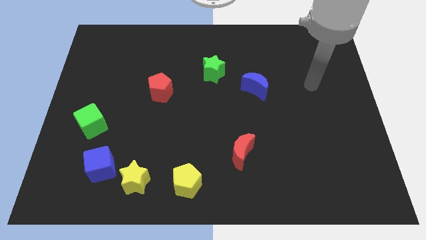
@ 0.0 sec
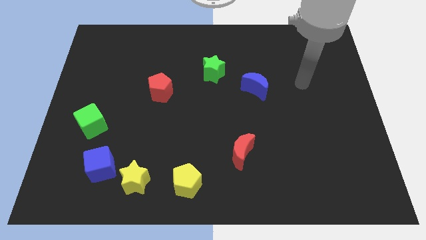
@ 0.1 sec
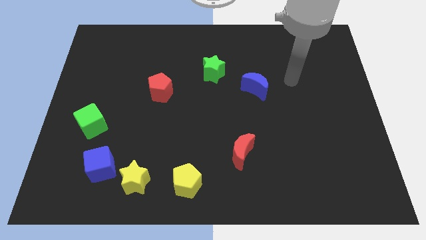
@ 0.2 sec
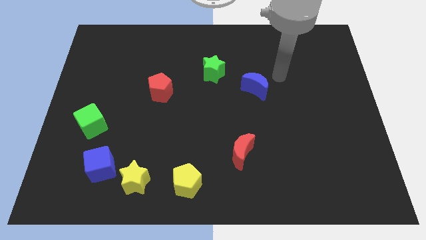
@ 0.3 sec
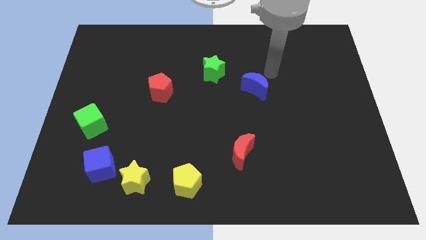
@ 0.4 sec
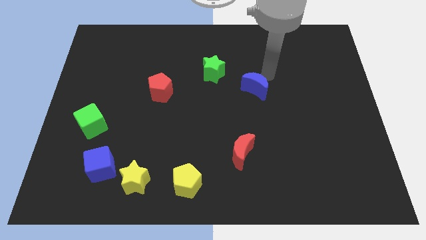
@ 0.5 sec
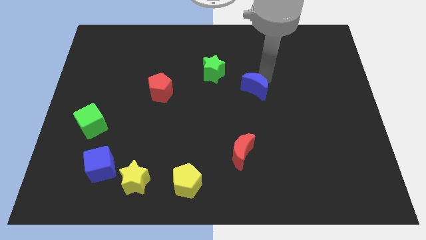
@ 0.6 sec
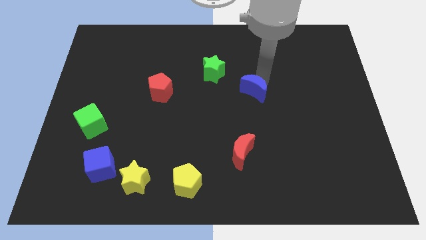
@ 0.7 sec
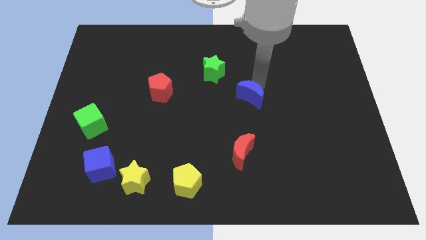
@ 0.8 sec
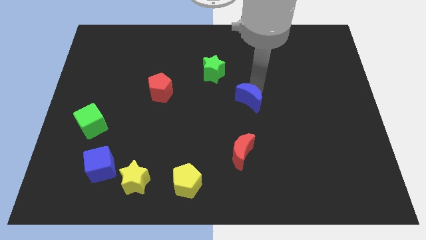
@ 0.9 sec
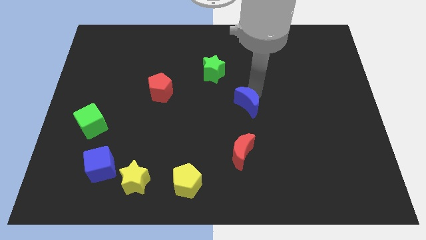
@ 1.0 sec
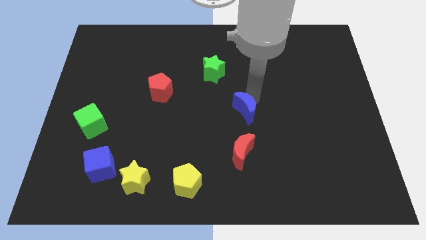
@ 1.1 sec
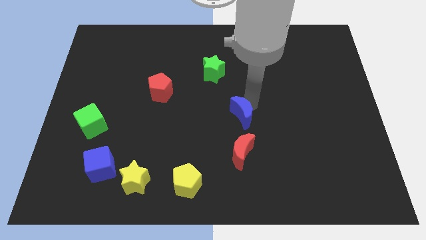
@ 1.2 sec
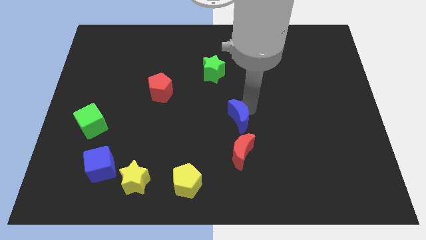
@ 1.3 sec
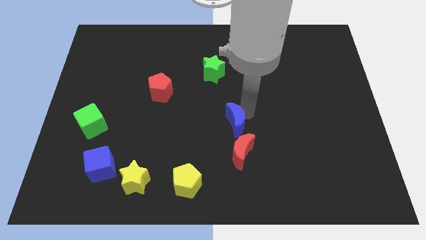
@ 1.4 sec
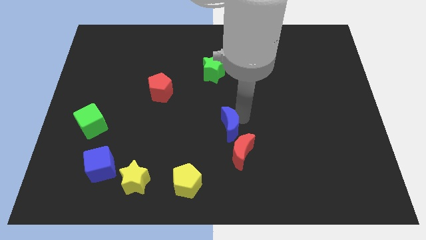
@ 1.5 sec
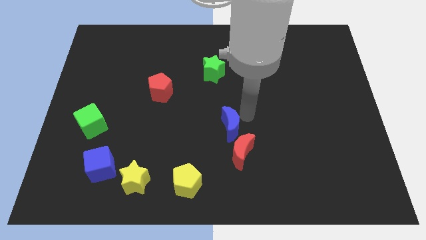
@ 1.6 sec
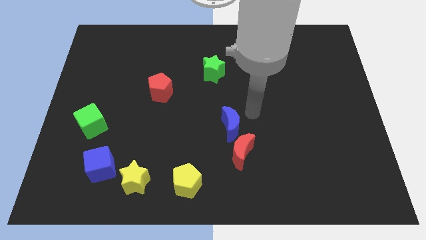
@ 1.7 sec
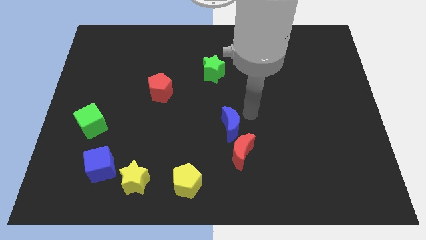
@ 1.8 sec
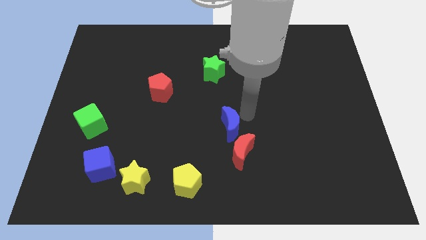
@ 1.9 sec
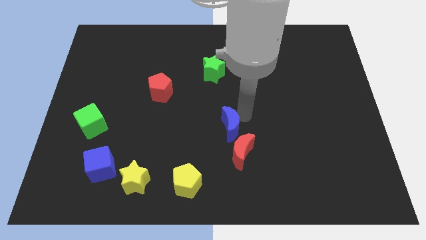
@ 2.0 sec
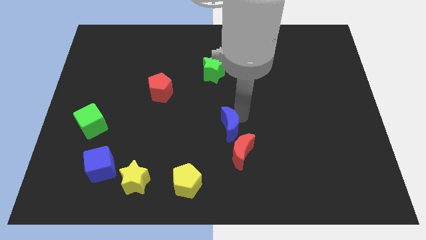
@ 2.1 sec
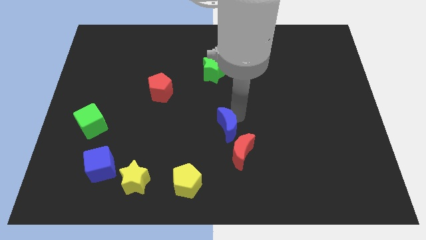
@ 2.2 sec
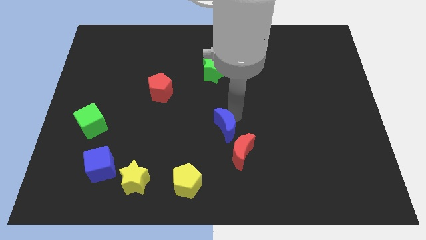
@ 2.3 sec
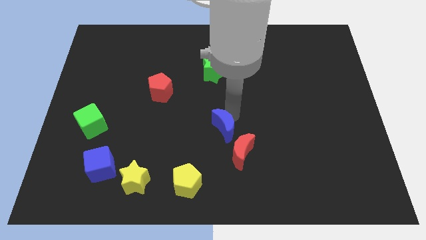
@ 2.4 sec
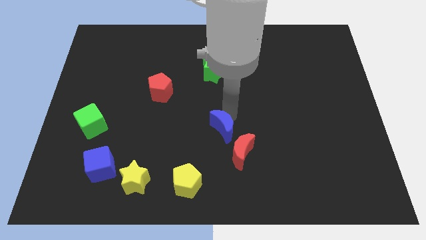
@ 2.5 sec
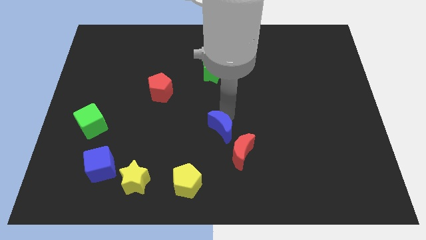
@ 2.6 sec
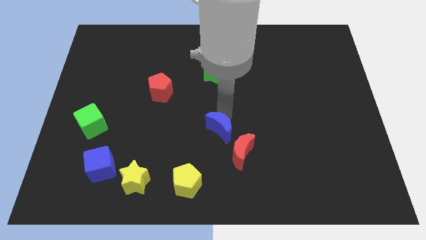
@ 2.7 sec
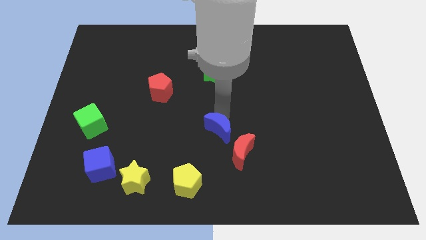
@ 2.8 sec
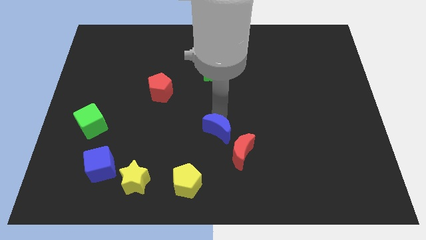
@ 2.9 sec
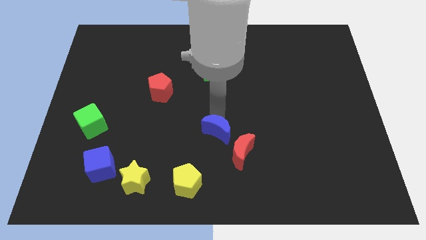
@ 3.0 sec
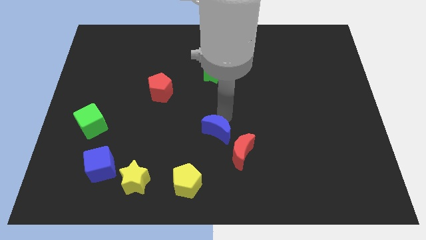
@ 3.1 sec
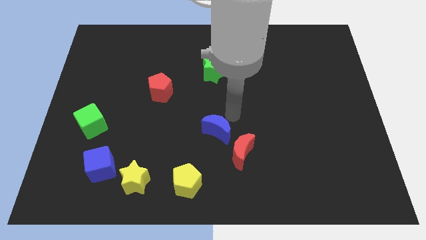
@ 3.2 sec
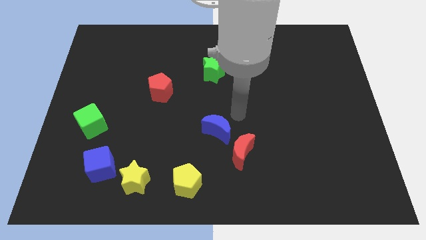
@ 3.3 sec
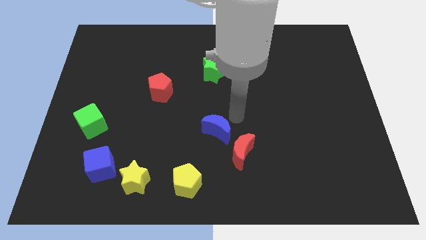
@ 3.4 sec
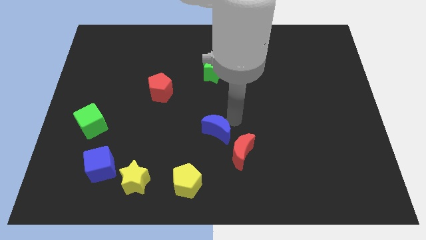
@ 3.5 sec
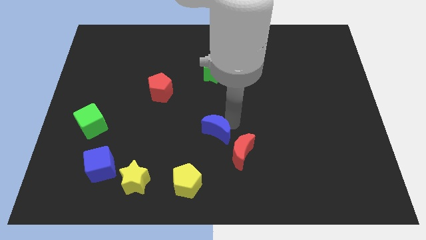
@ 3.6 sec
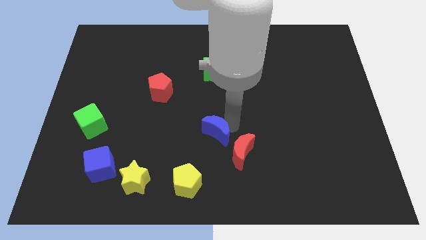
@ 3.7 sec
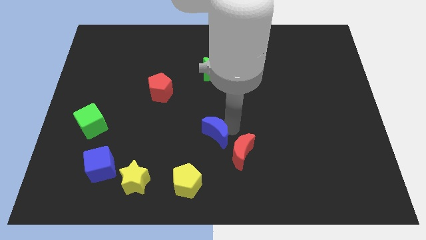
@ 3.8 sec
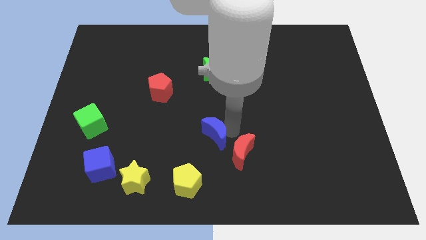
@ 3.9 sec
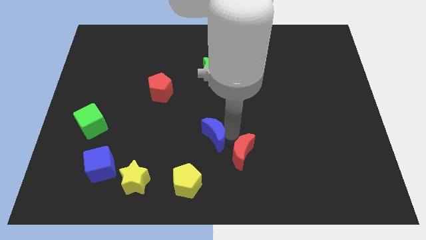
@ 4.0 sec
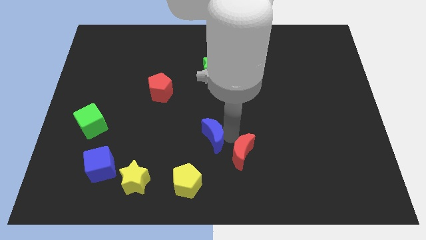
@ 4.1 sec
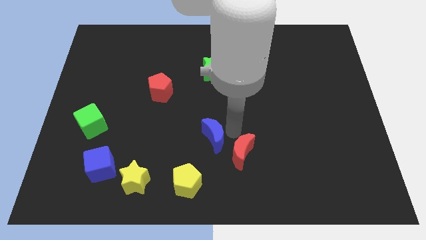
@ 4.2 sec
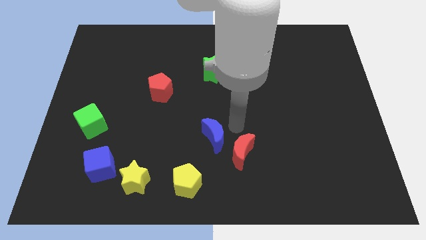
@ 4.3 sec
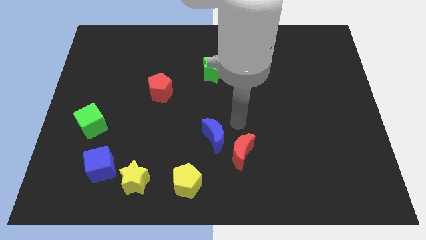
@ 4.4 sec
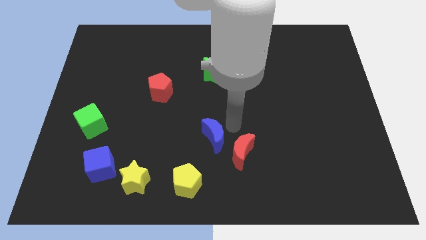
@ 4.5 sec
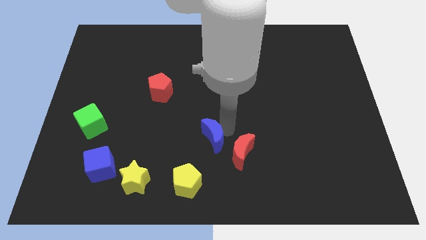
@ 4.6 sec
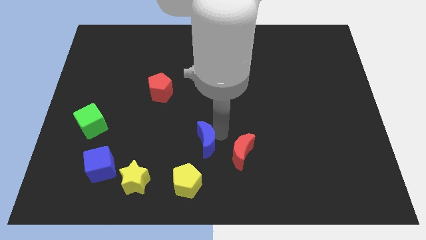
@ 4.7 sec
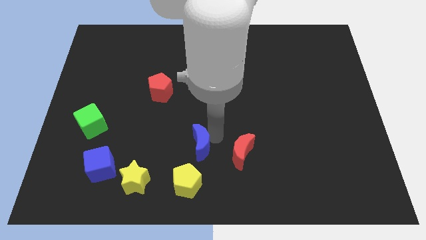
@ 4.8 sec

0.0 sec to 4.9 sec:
push the blue moon downwards and left

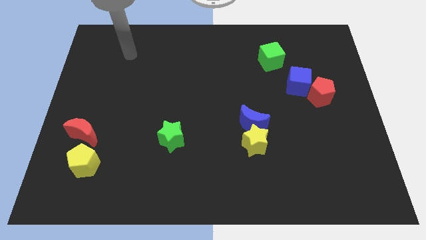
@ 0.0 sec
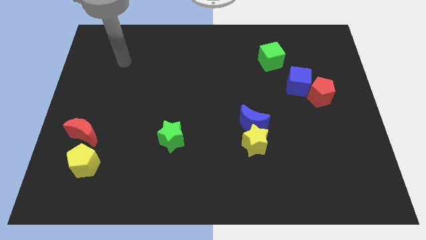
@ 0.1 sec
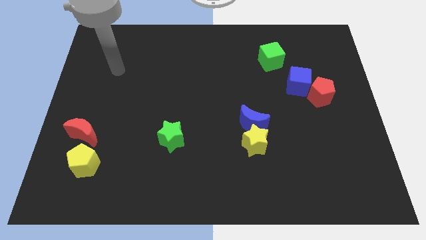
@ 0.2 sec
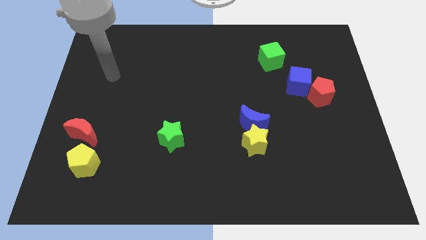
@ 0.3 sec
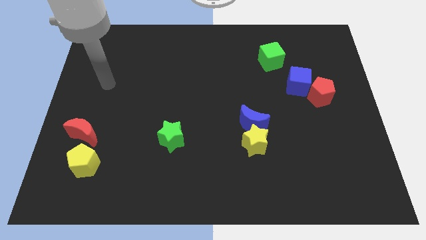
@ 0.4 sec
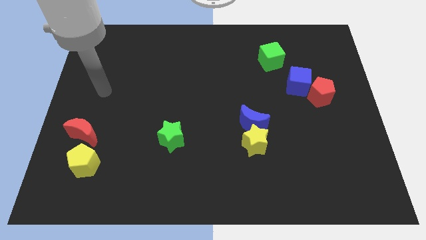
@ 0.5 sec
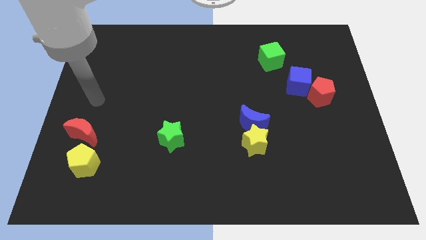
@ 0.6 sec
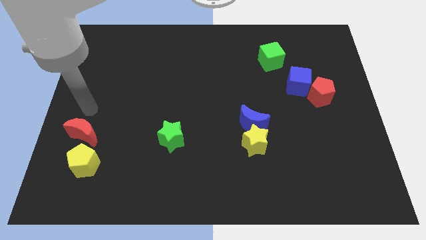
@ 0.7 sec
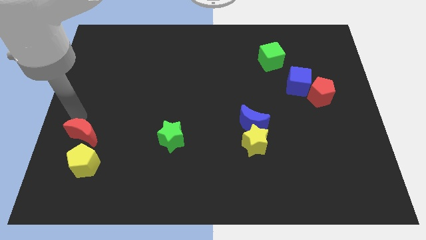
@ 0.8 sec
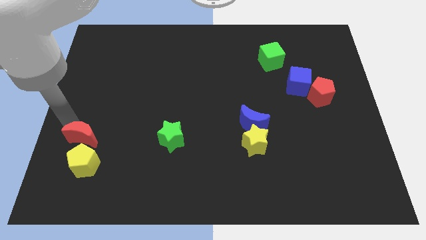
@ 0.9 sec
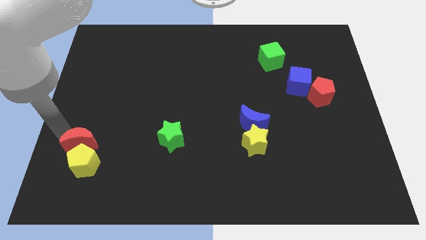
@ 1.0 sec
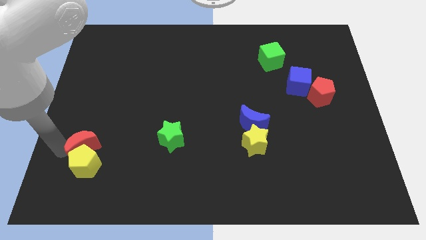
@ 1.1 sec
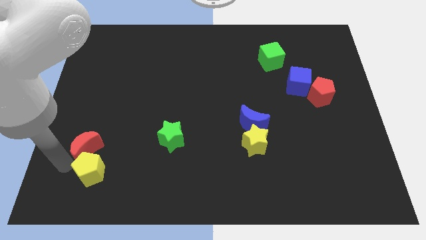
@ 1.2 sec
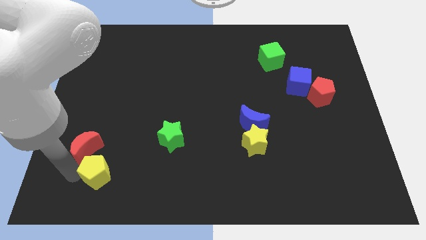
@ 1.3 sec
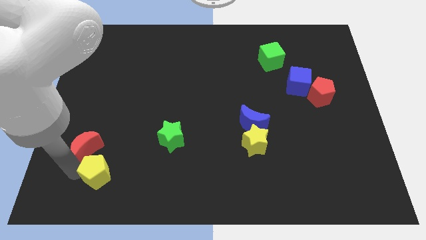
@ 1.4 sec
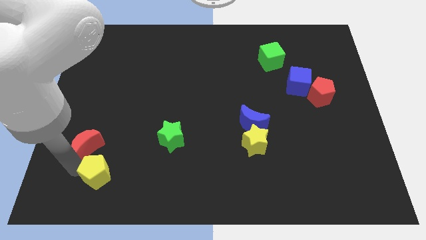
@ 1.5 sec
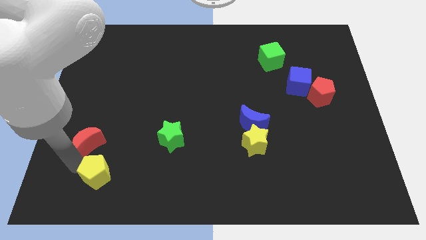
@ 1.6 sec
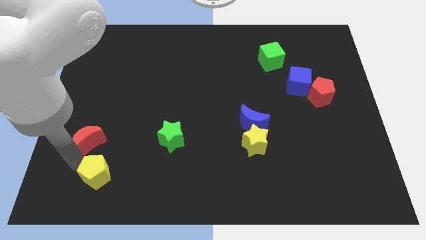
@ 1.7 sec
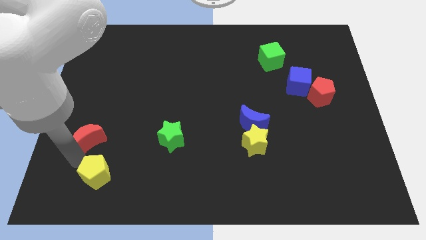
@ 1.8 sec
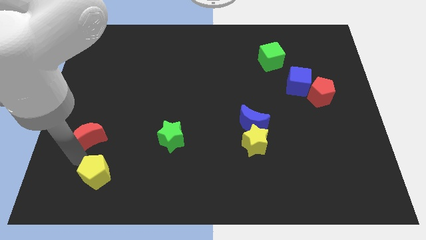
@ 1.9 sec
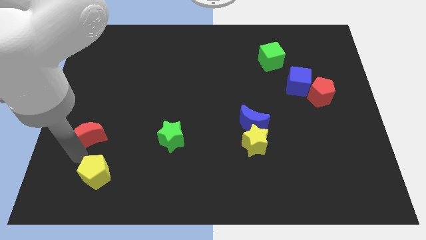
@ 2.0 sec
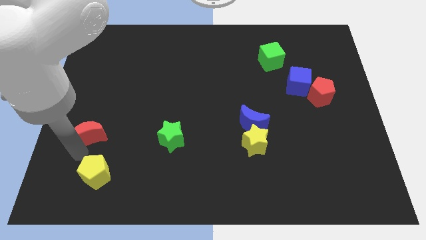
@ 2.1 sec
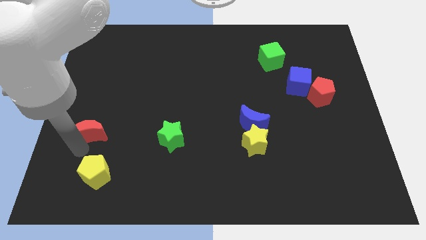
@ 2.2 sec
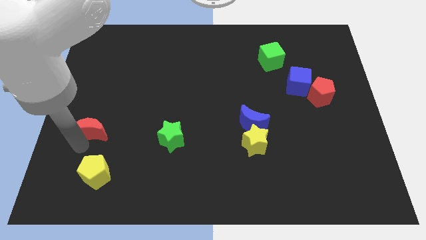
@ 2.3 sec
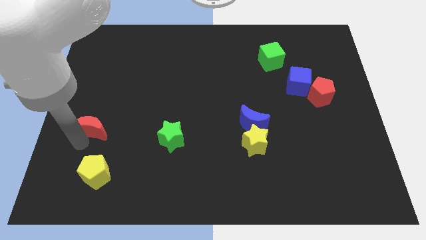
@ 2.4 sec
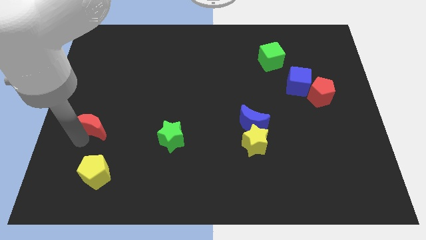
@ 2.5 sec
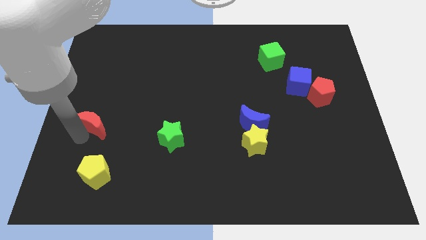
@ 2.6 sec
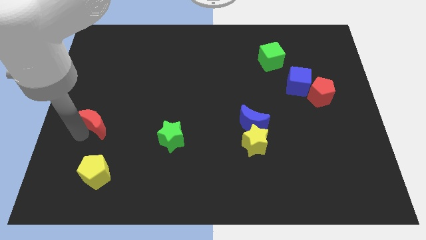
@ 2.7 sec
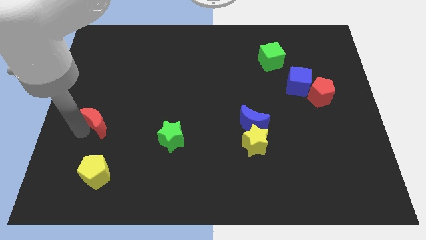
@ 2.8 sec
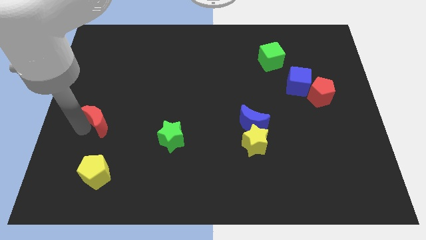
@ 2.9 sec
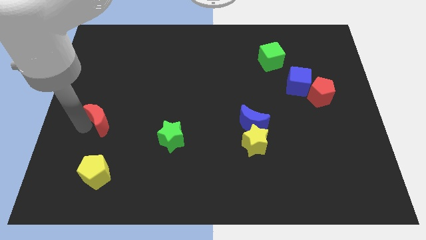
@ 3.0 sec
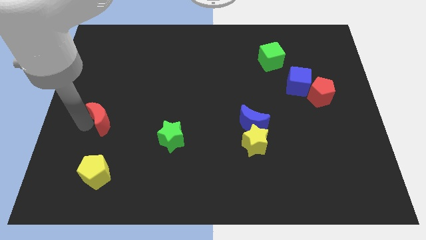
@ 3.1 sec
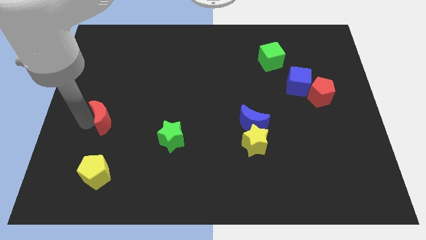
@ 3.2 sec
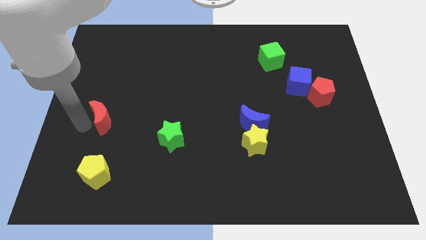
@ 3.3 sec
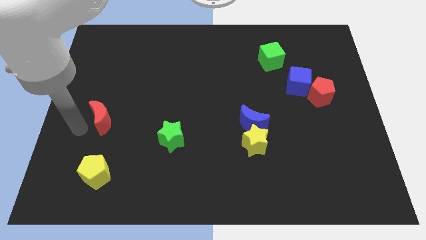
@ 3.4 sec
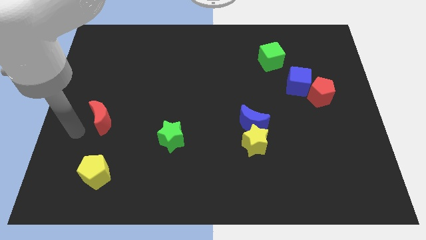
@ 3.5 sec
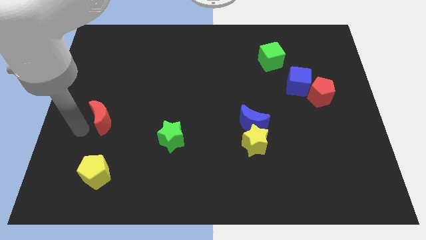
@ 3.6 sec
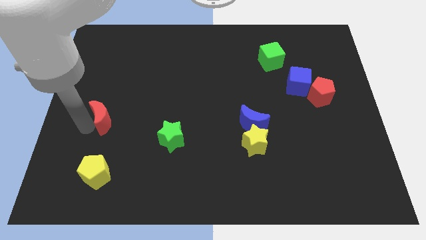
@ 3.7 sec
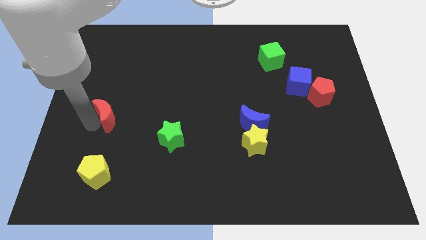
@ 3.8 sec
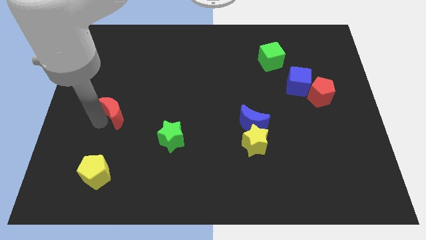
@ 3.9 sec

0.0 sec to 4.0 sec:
slide the red moon upwards and then right a little
